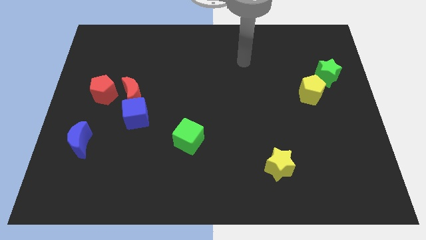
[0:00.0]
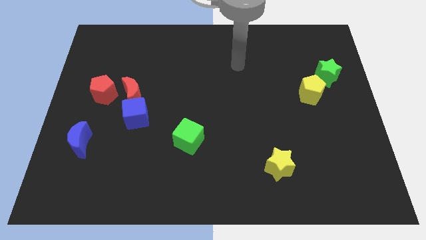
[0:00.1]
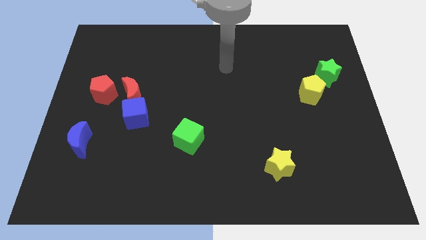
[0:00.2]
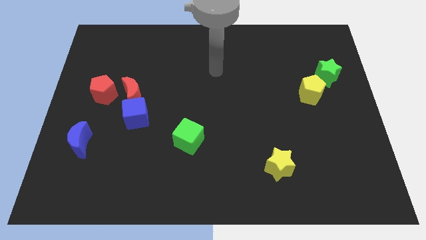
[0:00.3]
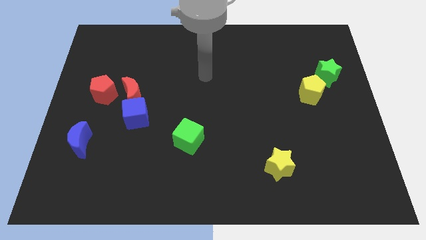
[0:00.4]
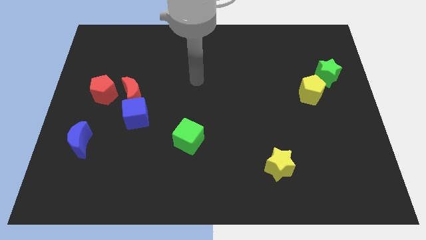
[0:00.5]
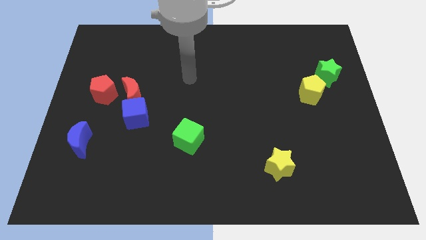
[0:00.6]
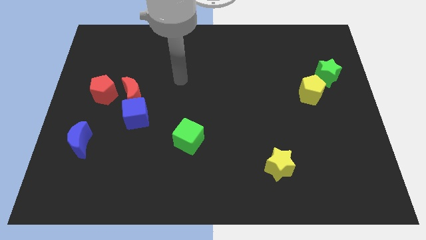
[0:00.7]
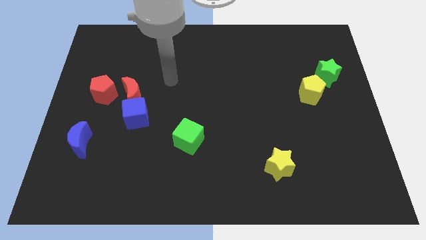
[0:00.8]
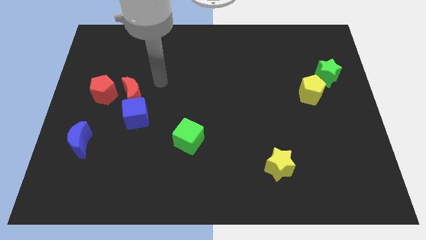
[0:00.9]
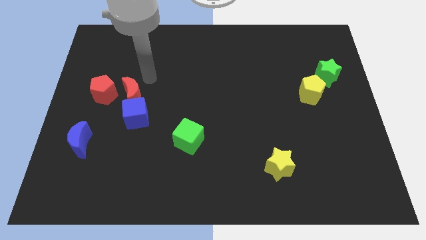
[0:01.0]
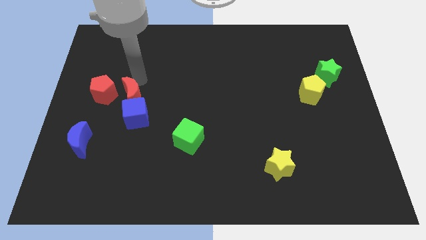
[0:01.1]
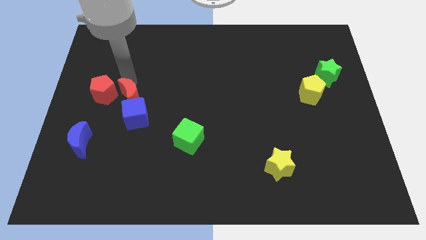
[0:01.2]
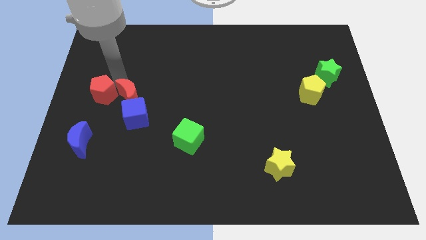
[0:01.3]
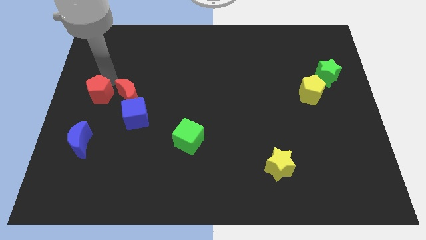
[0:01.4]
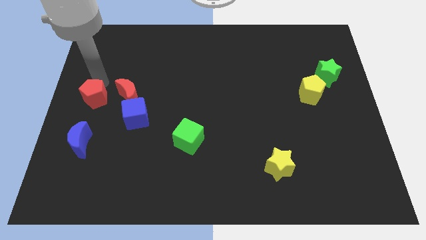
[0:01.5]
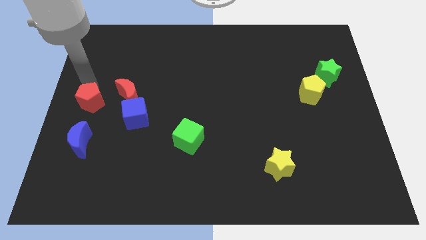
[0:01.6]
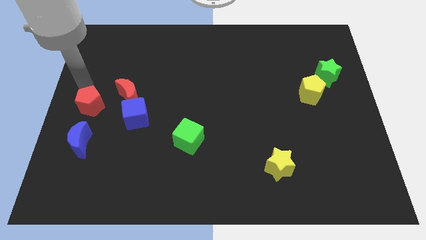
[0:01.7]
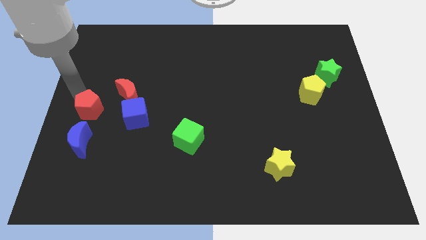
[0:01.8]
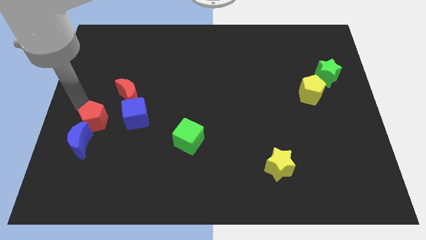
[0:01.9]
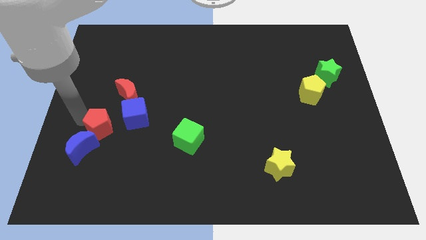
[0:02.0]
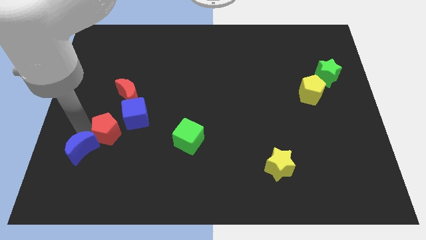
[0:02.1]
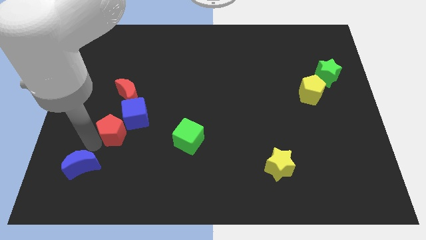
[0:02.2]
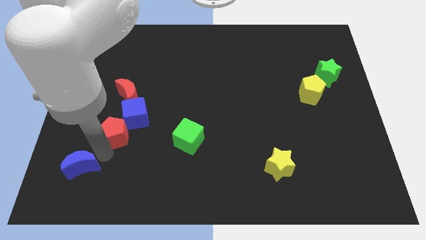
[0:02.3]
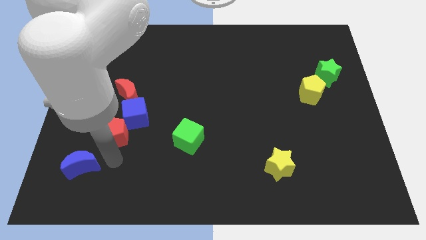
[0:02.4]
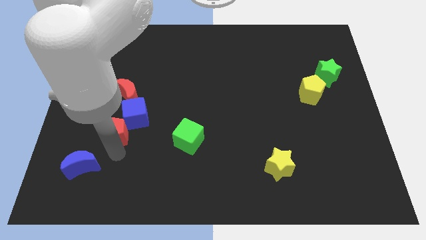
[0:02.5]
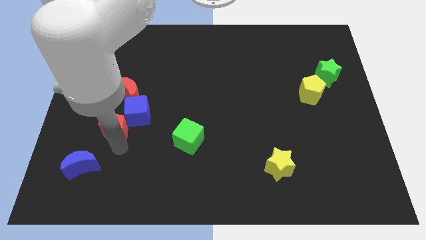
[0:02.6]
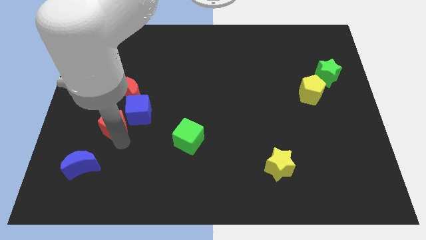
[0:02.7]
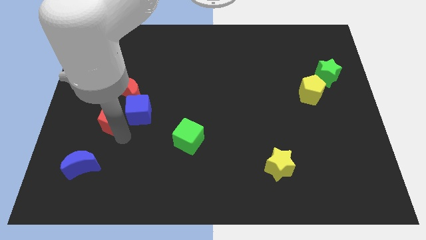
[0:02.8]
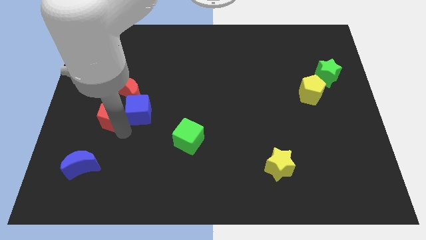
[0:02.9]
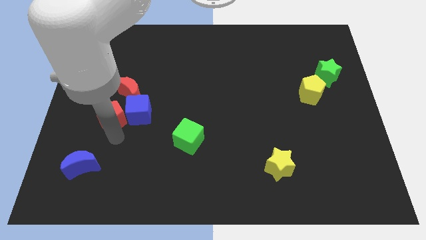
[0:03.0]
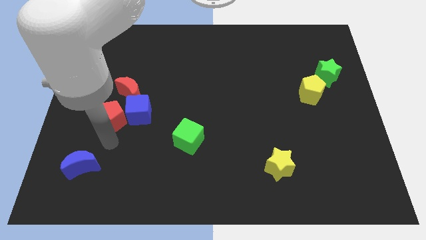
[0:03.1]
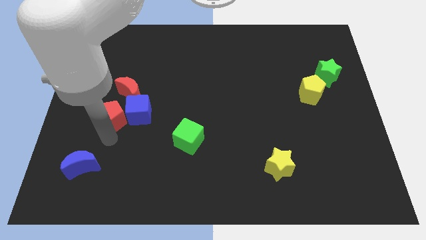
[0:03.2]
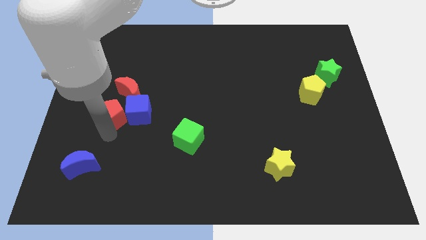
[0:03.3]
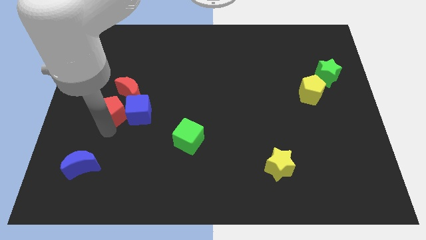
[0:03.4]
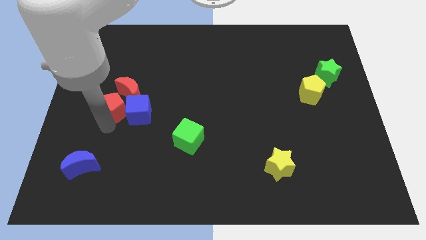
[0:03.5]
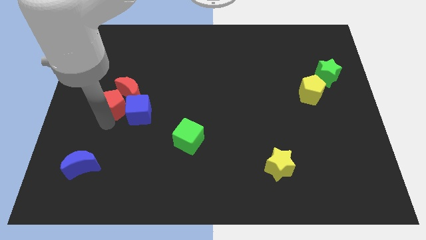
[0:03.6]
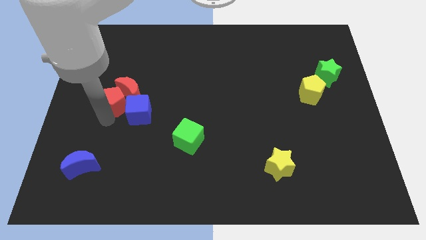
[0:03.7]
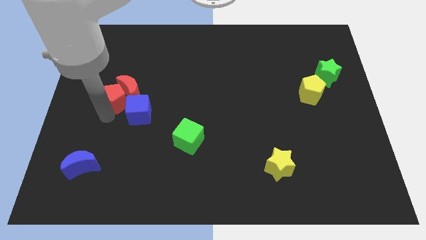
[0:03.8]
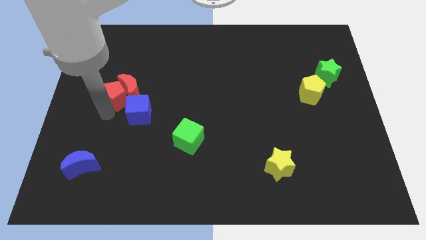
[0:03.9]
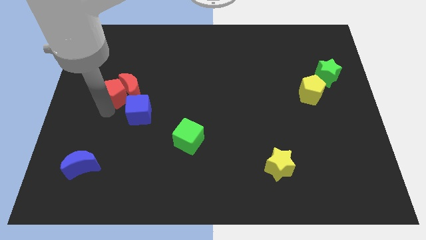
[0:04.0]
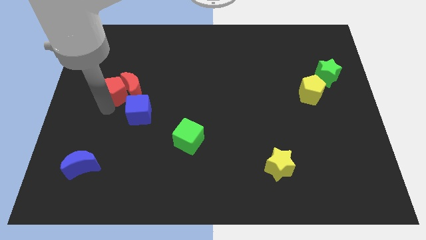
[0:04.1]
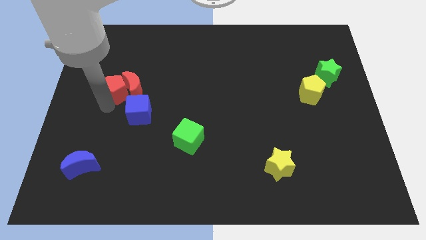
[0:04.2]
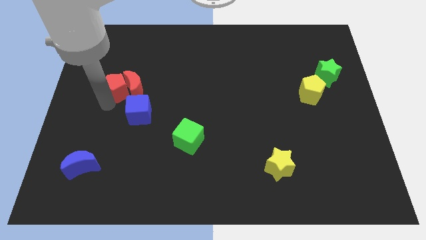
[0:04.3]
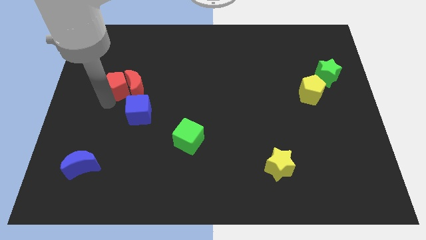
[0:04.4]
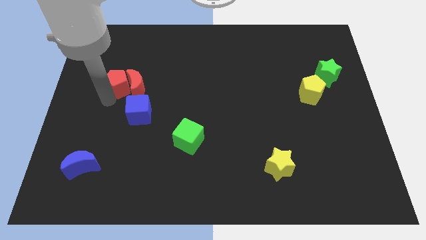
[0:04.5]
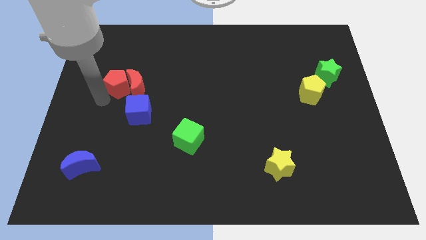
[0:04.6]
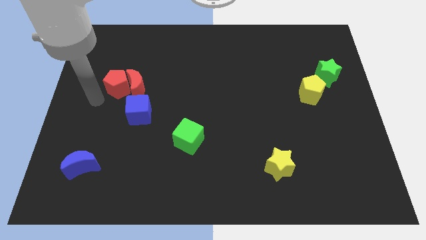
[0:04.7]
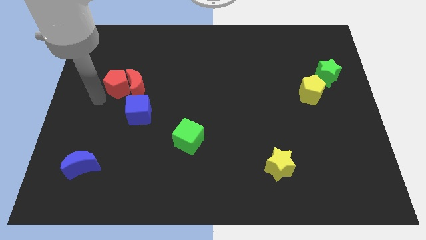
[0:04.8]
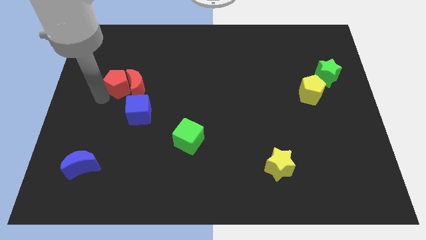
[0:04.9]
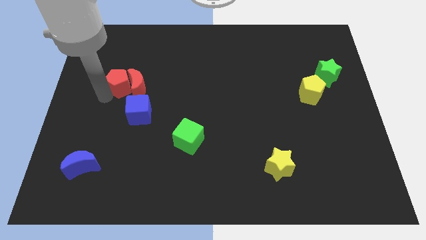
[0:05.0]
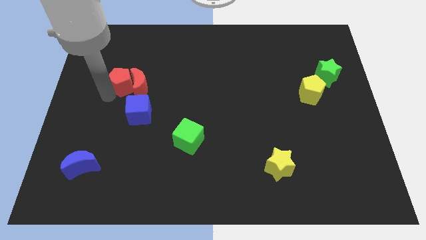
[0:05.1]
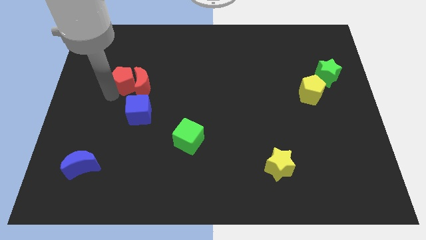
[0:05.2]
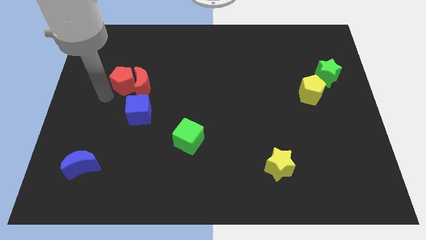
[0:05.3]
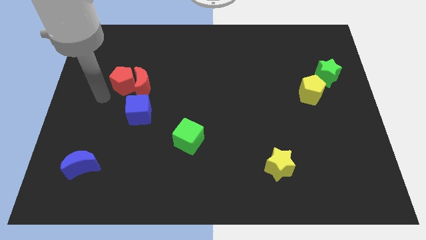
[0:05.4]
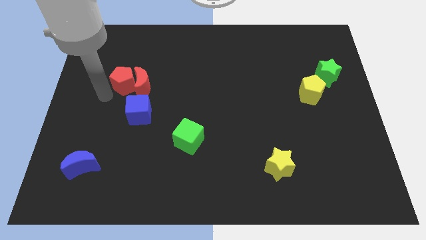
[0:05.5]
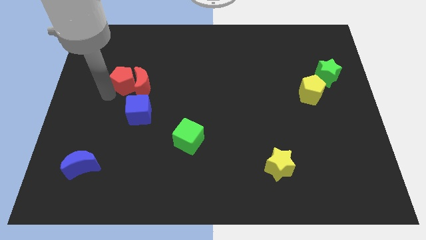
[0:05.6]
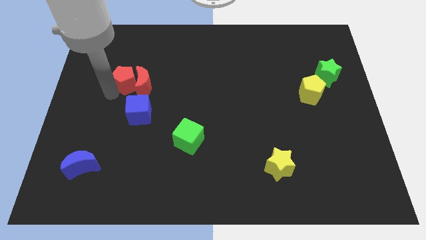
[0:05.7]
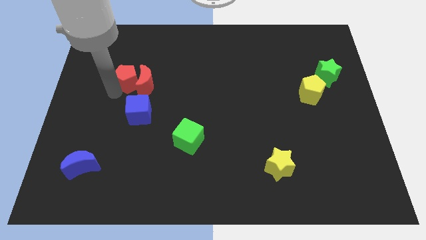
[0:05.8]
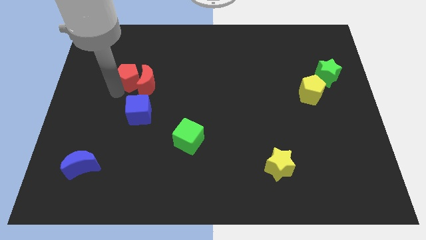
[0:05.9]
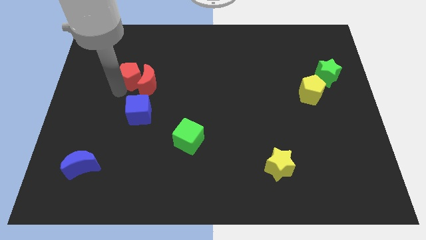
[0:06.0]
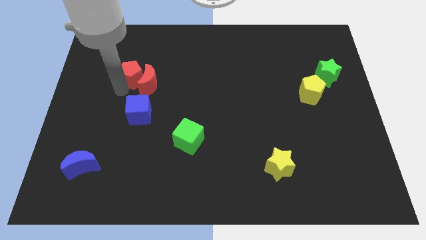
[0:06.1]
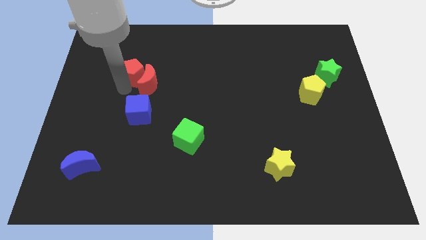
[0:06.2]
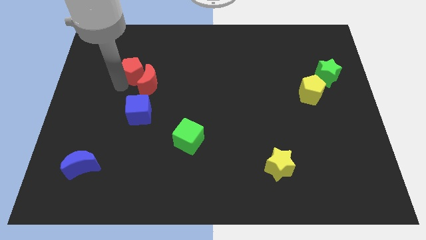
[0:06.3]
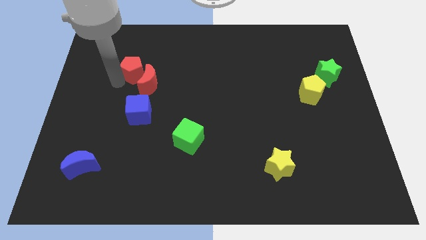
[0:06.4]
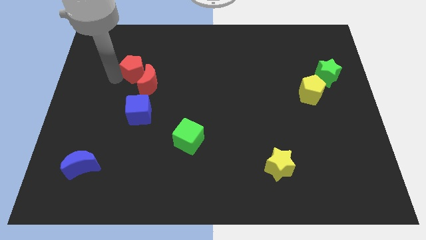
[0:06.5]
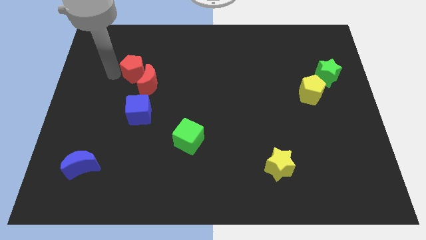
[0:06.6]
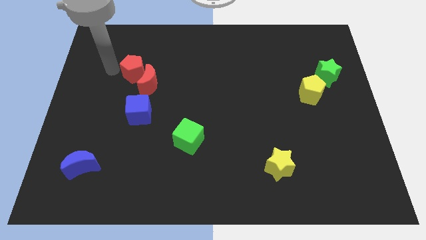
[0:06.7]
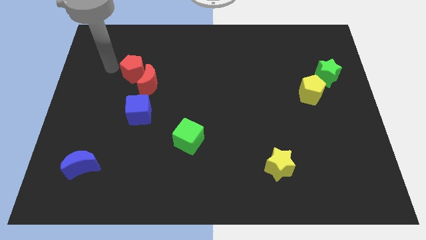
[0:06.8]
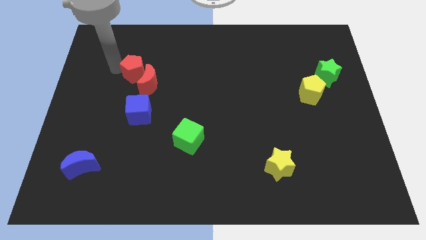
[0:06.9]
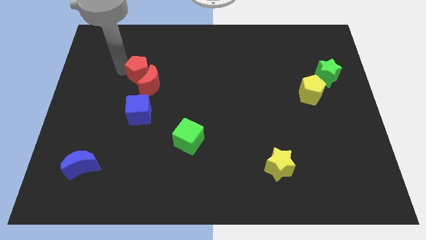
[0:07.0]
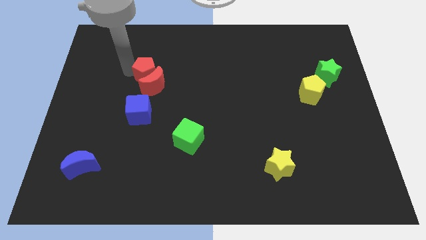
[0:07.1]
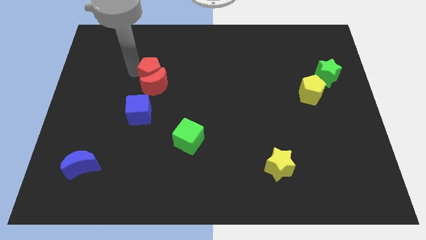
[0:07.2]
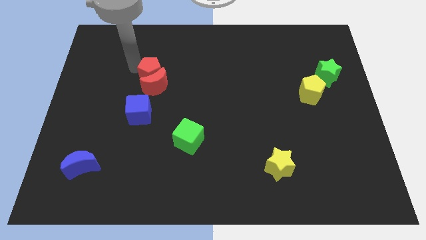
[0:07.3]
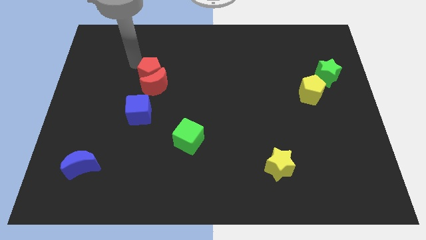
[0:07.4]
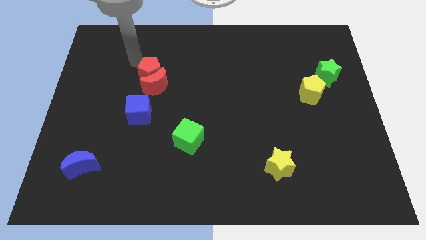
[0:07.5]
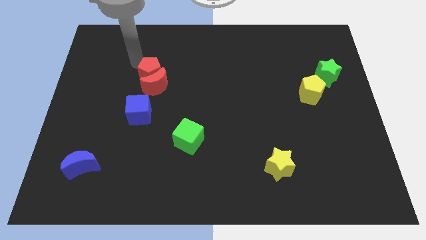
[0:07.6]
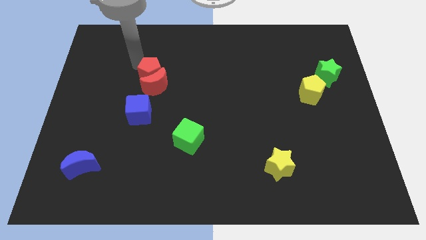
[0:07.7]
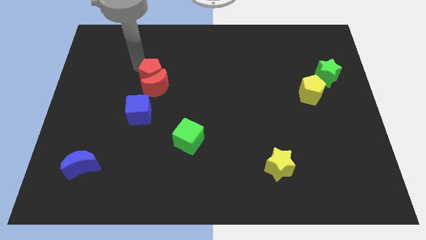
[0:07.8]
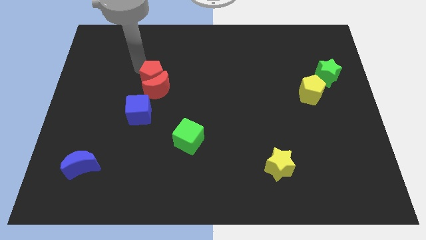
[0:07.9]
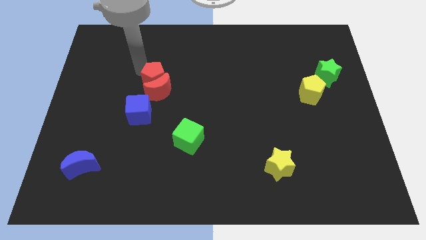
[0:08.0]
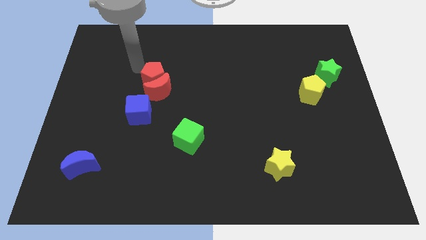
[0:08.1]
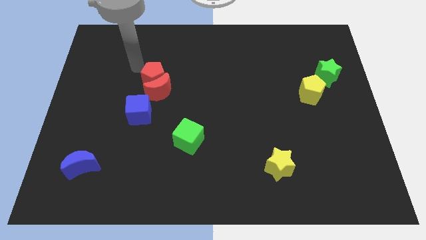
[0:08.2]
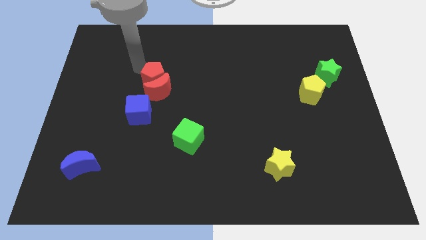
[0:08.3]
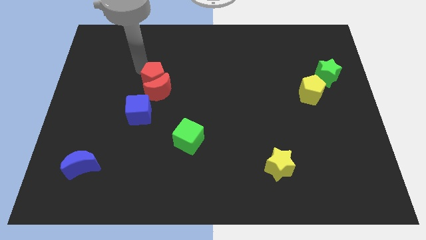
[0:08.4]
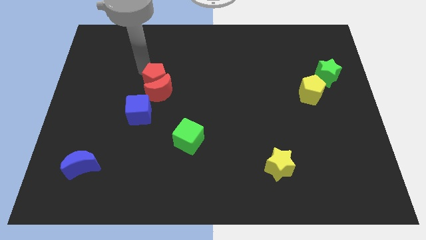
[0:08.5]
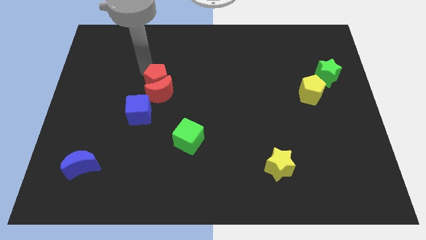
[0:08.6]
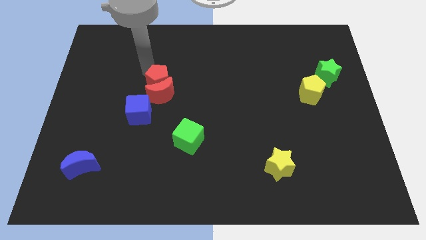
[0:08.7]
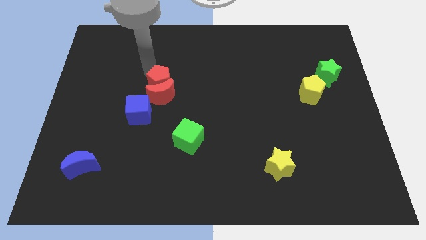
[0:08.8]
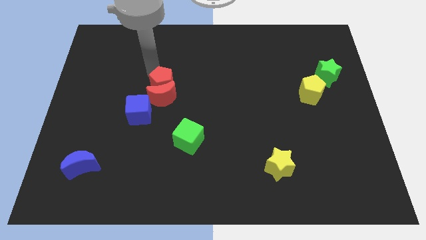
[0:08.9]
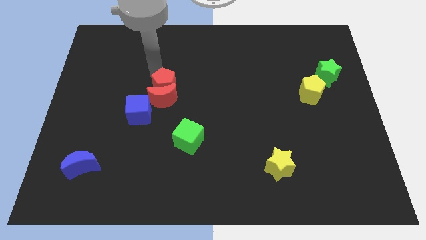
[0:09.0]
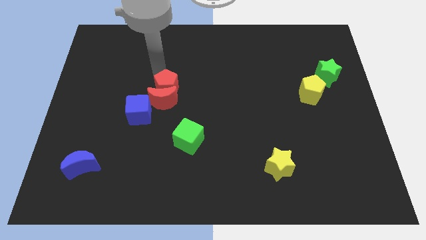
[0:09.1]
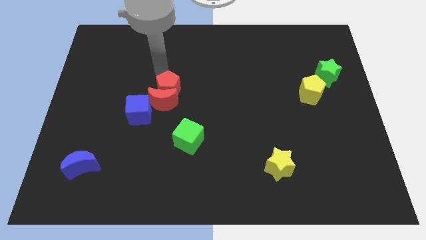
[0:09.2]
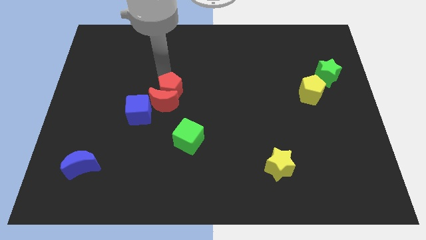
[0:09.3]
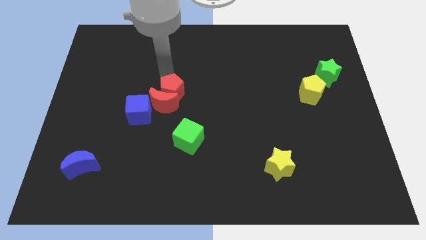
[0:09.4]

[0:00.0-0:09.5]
push the red pentagon above the green cube
